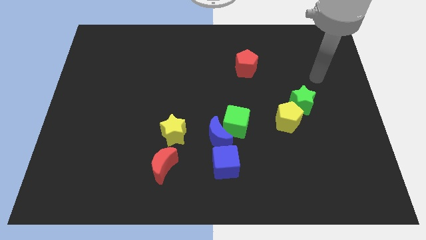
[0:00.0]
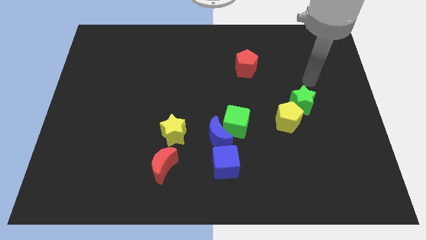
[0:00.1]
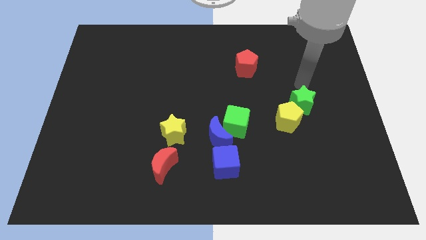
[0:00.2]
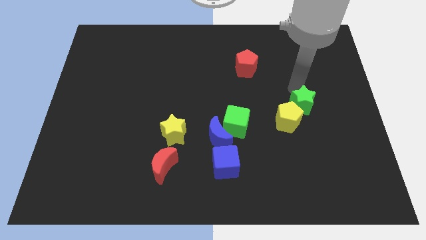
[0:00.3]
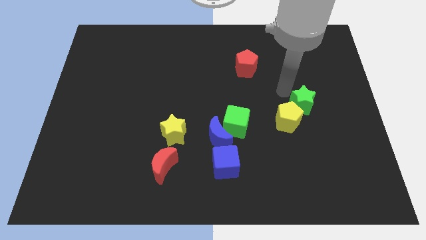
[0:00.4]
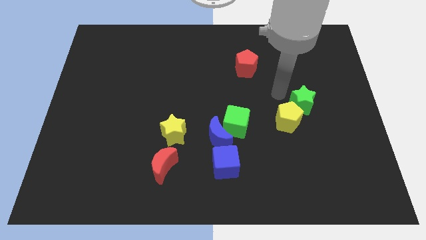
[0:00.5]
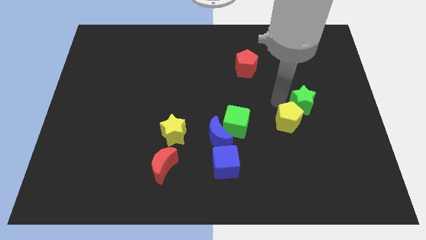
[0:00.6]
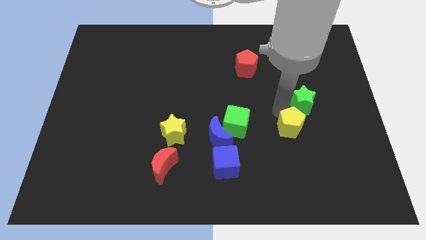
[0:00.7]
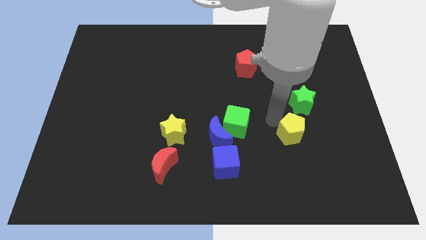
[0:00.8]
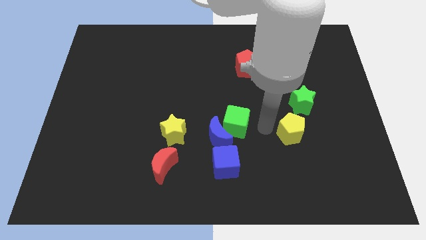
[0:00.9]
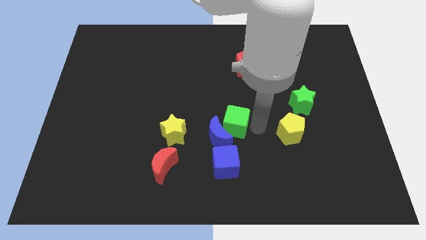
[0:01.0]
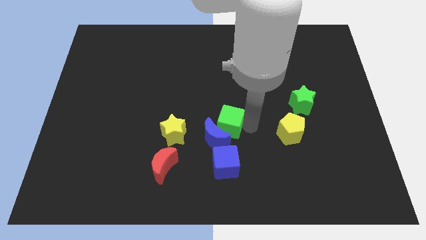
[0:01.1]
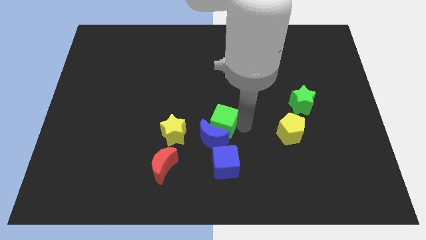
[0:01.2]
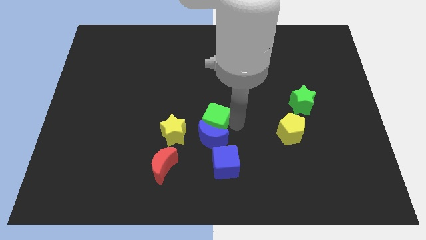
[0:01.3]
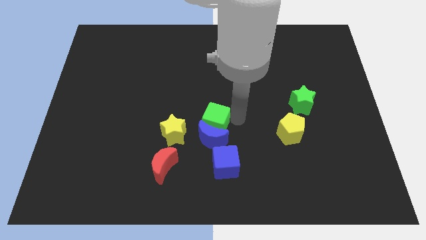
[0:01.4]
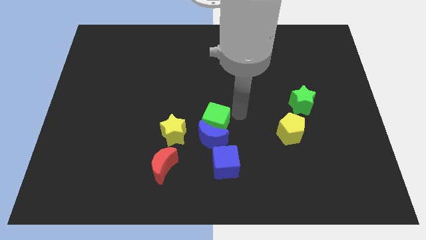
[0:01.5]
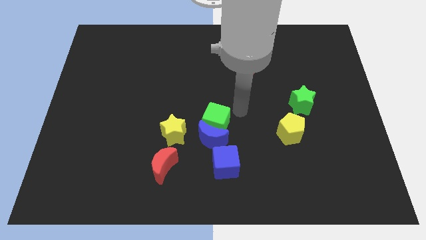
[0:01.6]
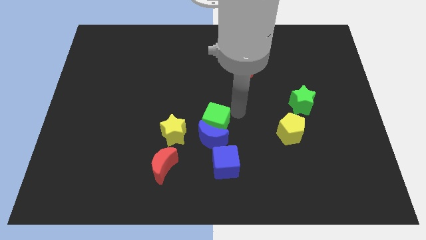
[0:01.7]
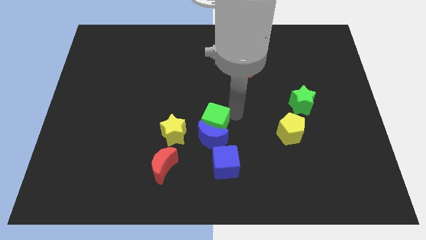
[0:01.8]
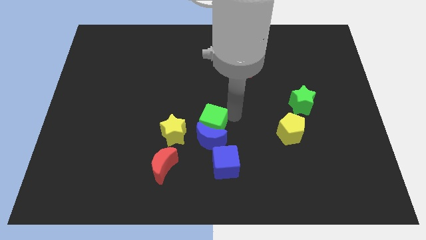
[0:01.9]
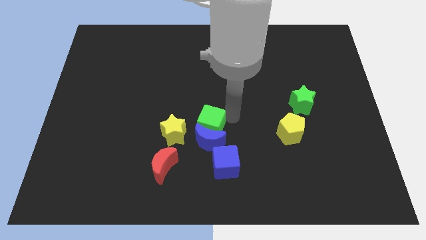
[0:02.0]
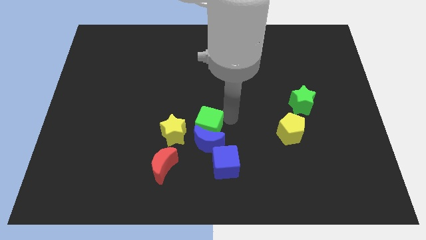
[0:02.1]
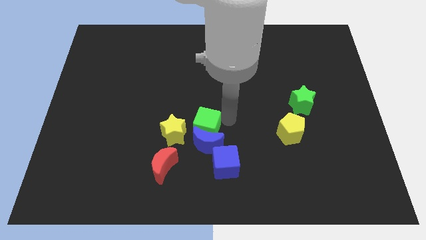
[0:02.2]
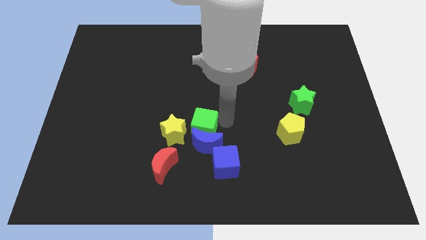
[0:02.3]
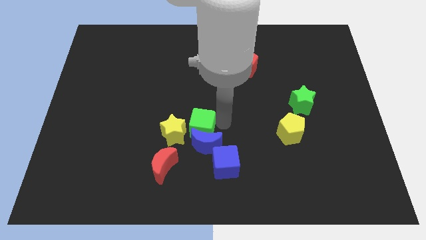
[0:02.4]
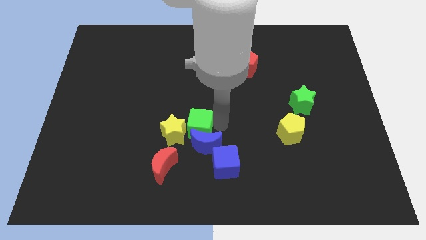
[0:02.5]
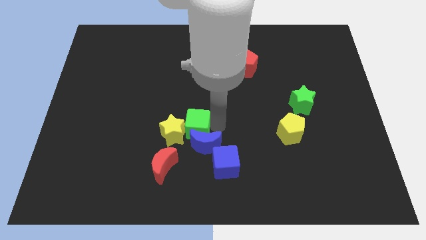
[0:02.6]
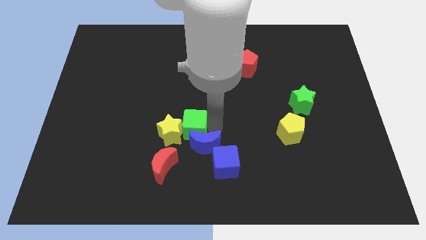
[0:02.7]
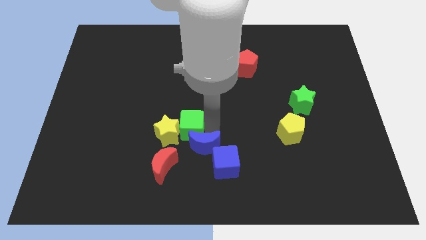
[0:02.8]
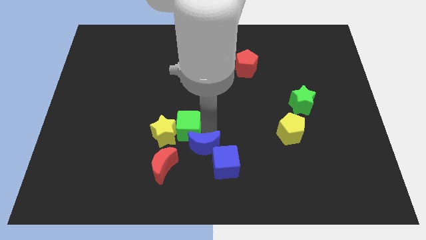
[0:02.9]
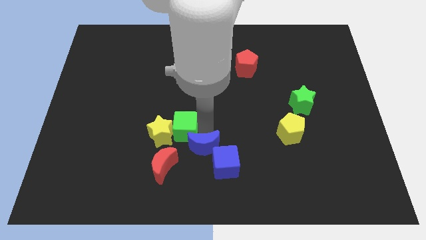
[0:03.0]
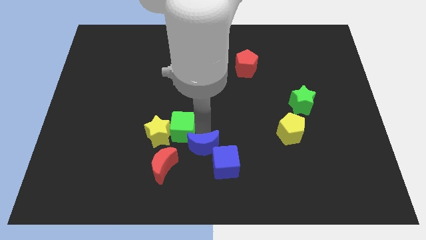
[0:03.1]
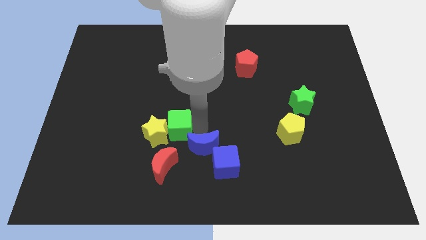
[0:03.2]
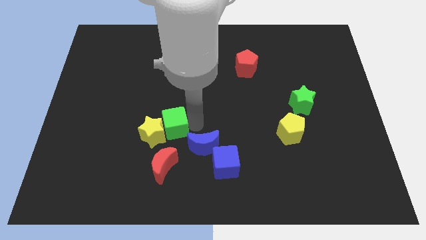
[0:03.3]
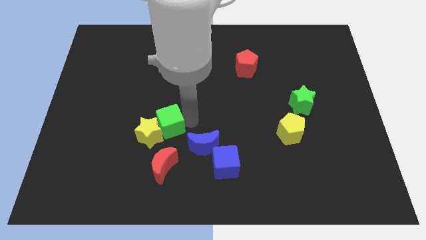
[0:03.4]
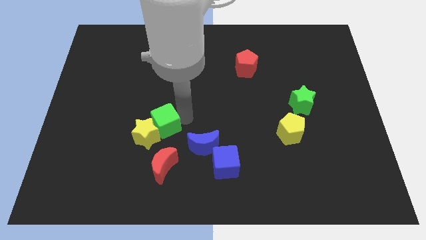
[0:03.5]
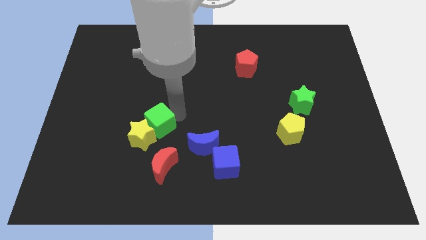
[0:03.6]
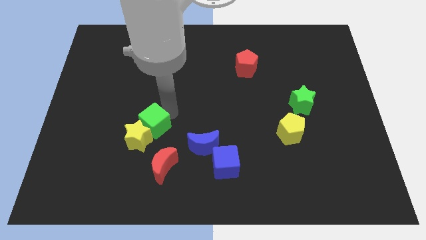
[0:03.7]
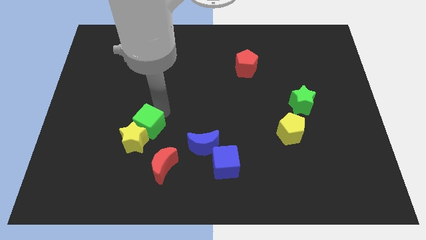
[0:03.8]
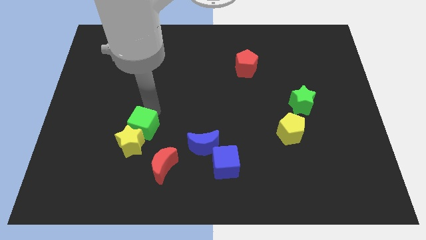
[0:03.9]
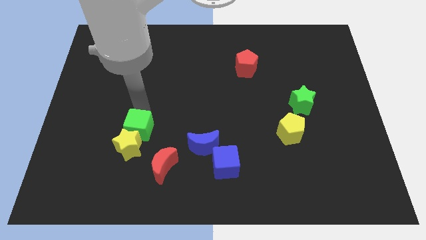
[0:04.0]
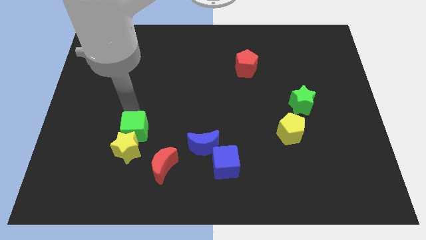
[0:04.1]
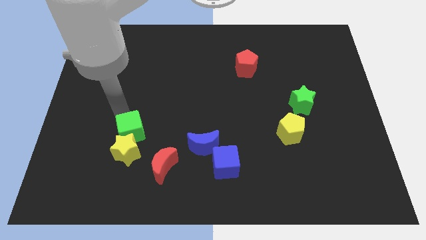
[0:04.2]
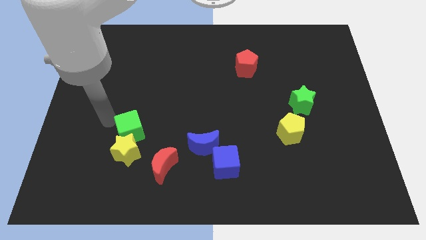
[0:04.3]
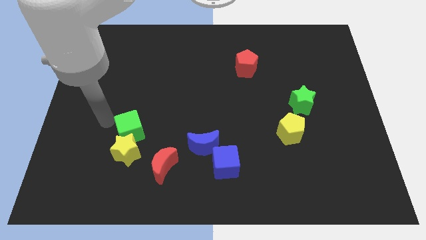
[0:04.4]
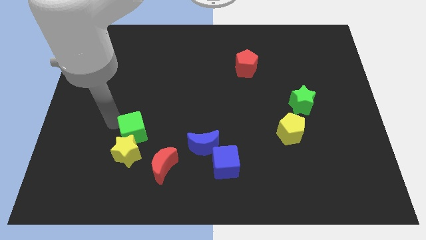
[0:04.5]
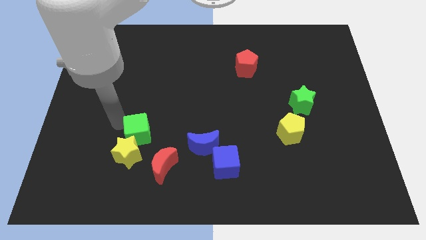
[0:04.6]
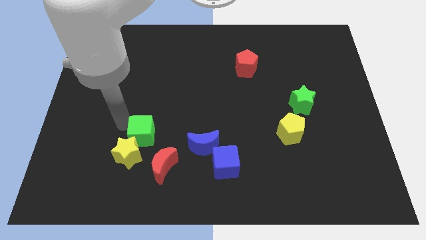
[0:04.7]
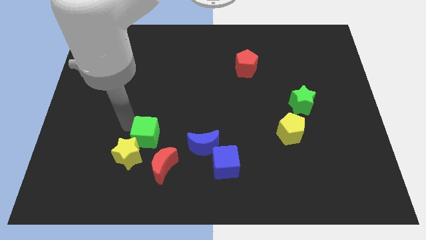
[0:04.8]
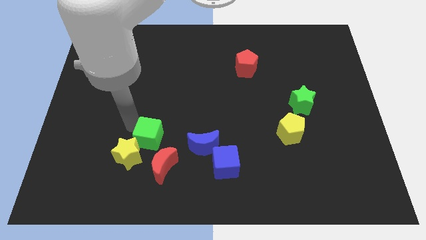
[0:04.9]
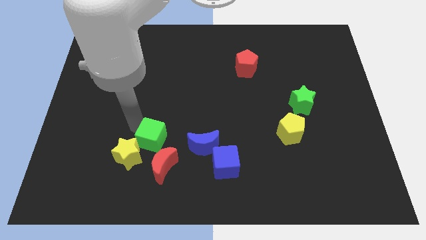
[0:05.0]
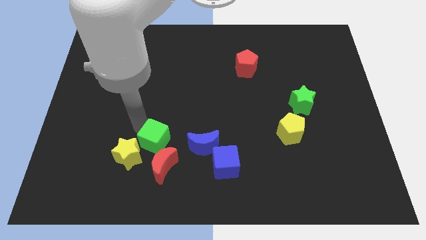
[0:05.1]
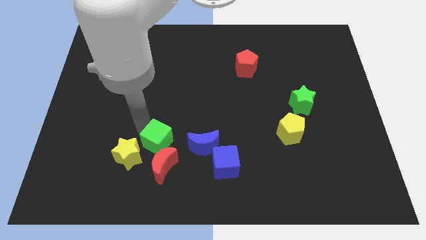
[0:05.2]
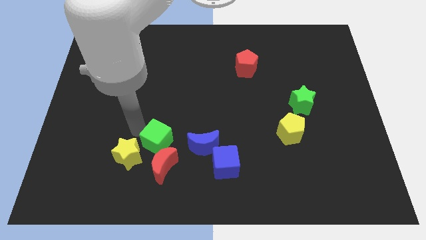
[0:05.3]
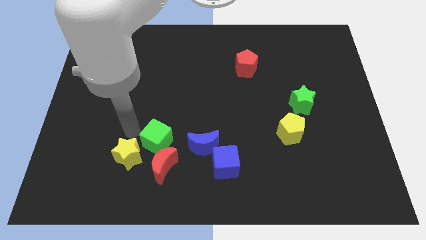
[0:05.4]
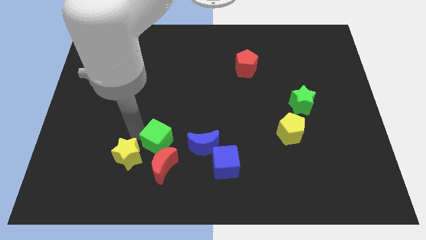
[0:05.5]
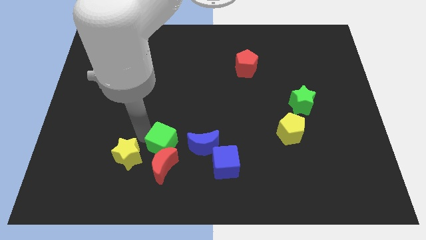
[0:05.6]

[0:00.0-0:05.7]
slide the green cube to the red moon

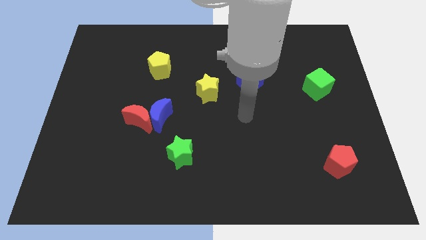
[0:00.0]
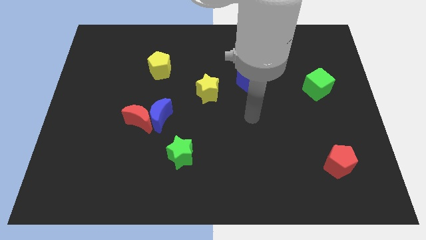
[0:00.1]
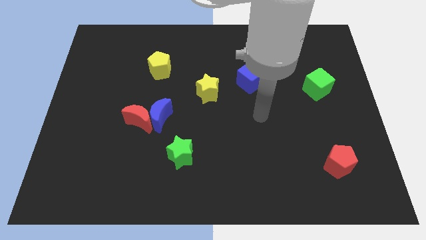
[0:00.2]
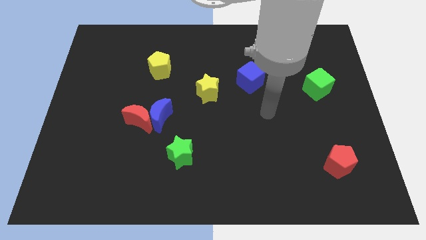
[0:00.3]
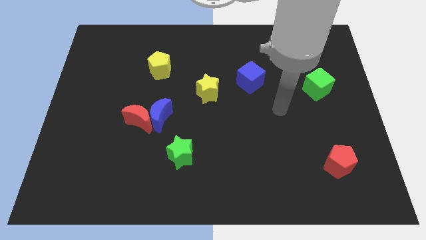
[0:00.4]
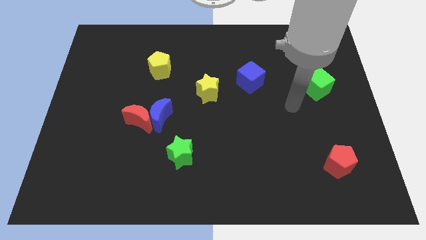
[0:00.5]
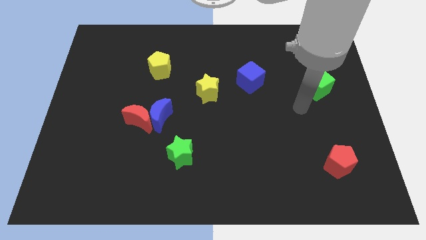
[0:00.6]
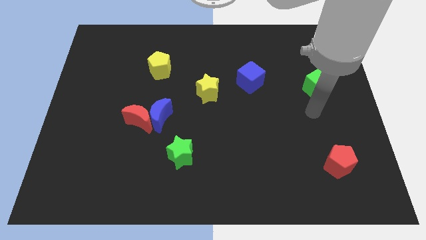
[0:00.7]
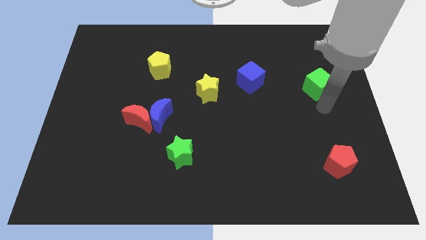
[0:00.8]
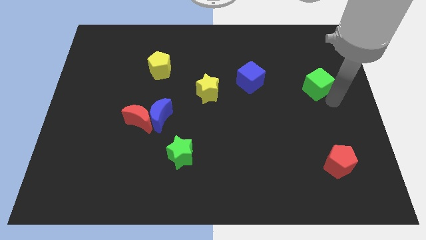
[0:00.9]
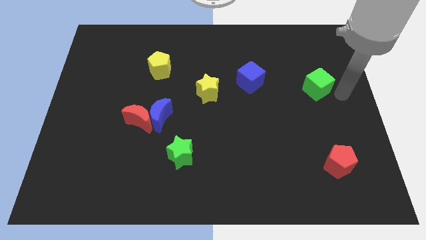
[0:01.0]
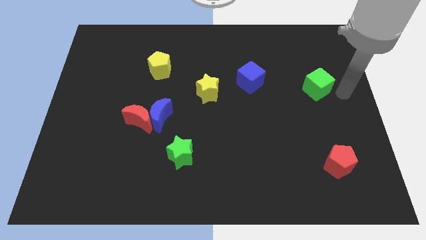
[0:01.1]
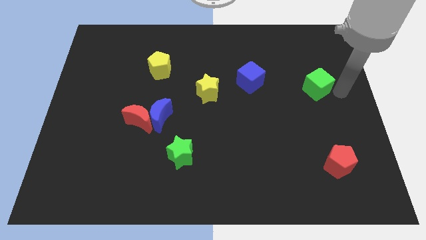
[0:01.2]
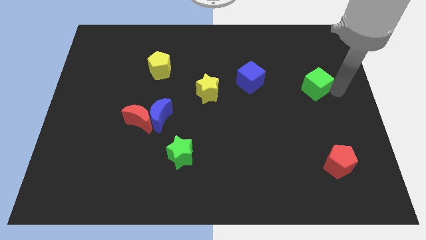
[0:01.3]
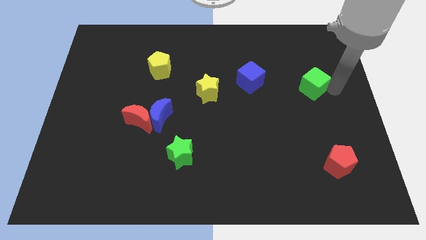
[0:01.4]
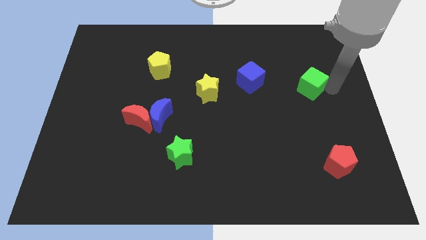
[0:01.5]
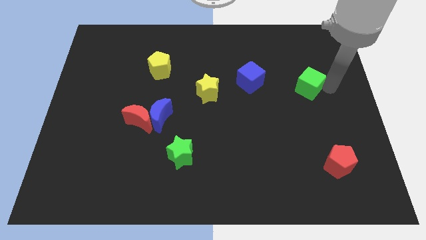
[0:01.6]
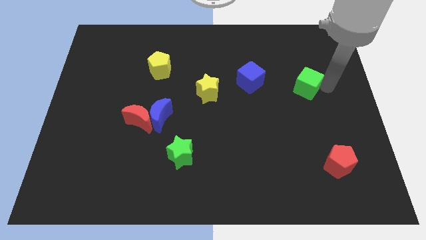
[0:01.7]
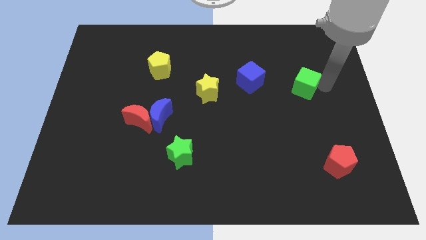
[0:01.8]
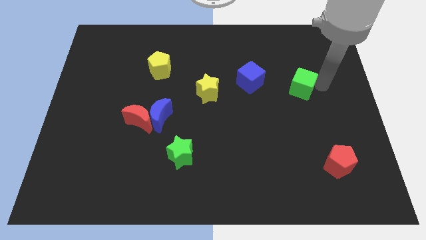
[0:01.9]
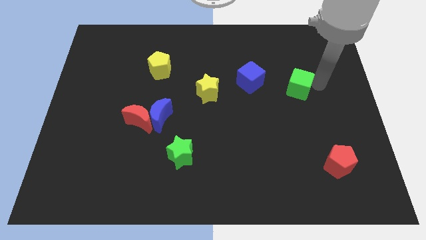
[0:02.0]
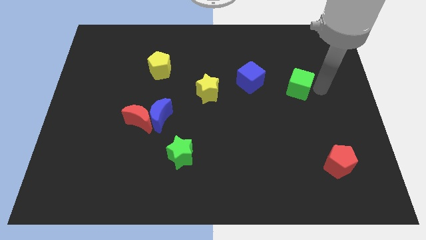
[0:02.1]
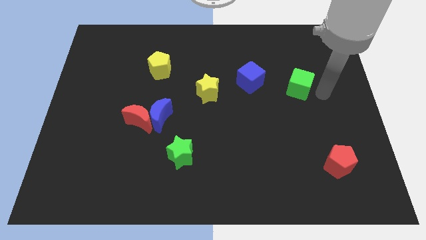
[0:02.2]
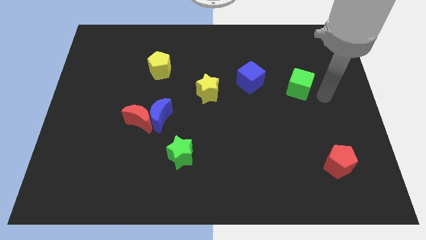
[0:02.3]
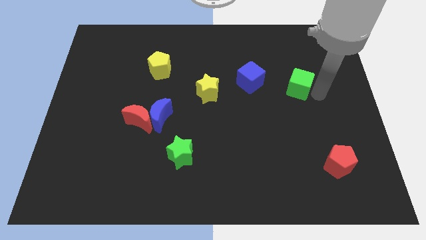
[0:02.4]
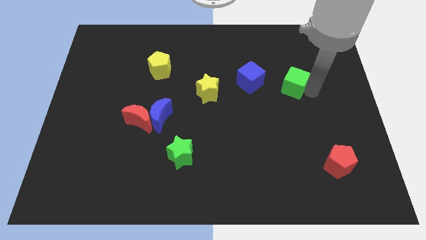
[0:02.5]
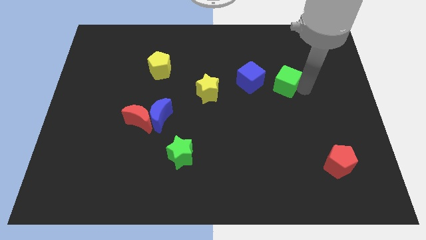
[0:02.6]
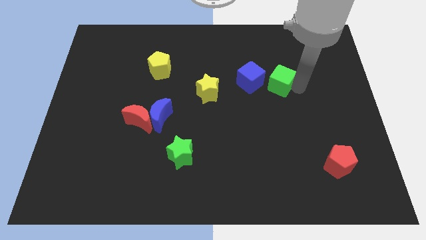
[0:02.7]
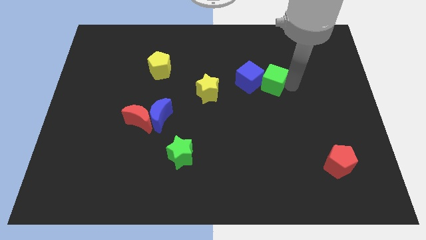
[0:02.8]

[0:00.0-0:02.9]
slide the green cube towards the blue cube
